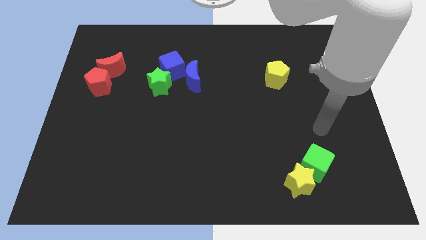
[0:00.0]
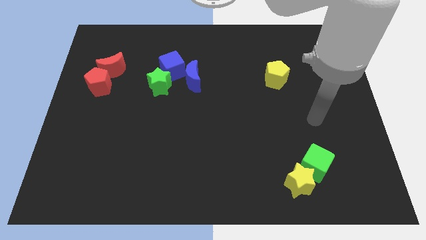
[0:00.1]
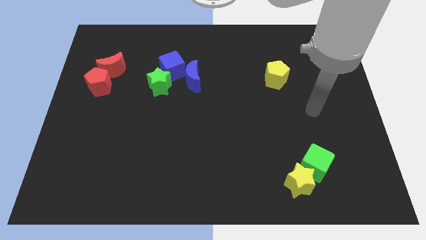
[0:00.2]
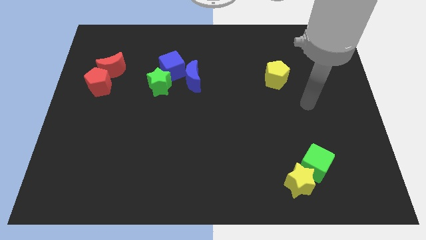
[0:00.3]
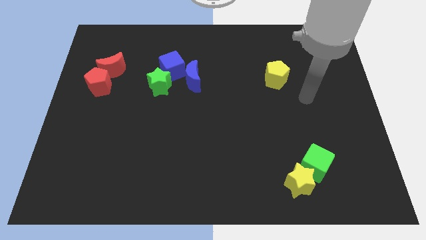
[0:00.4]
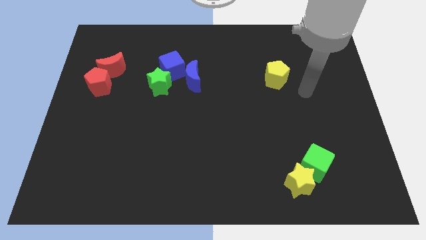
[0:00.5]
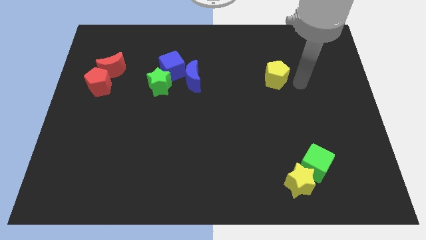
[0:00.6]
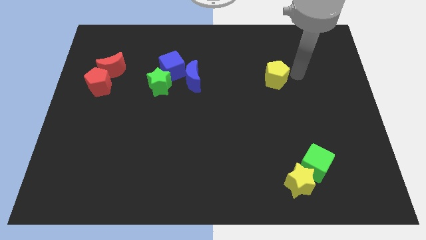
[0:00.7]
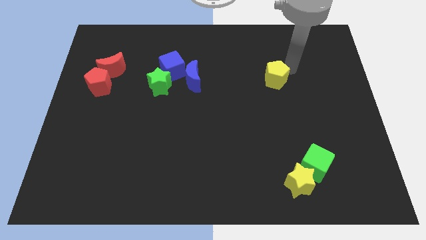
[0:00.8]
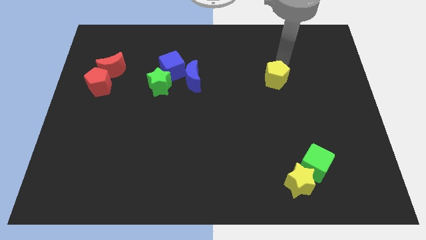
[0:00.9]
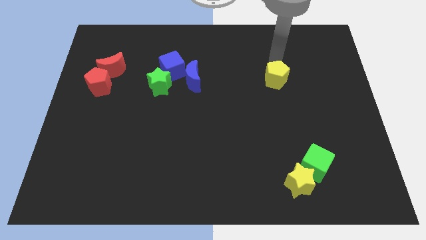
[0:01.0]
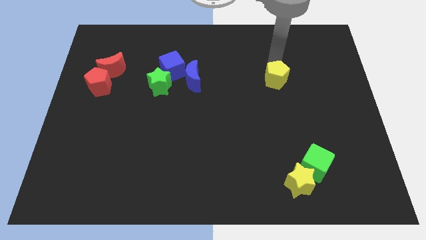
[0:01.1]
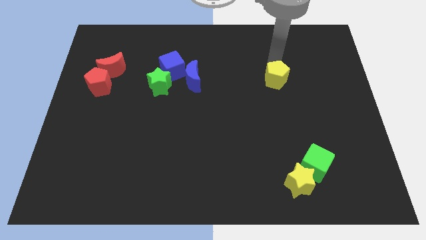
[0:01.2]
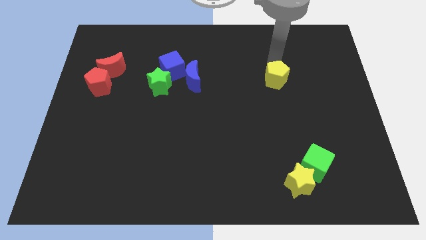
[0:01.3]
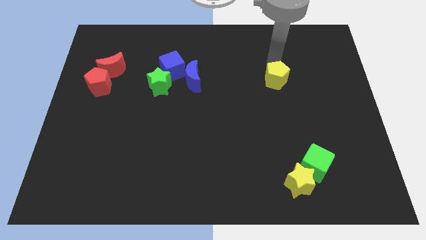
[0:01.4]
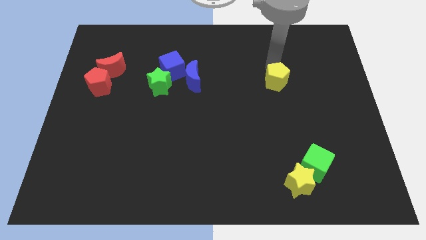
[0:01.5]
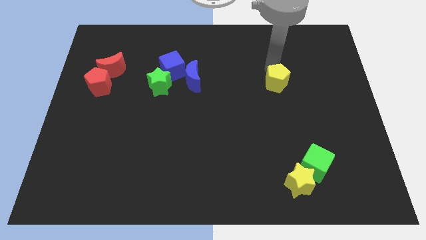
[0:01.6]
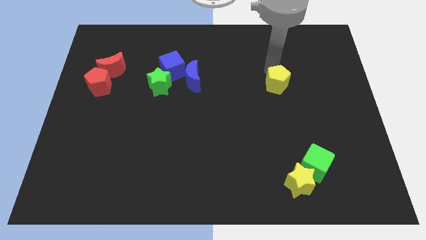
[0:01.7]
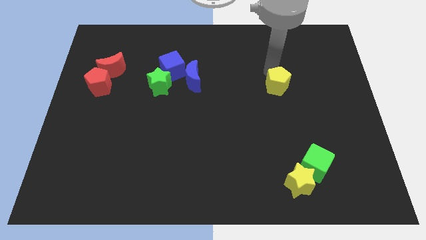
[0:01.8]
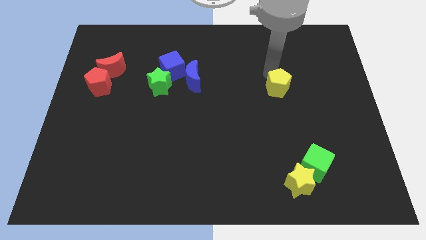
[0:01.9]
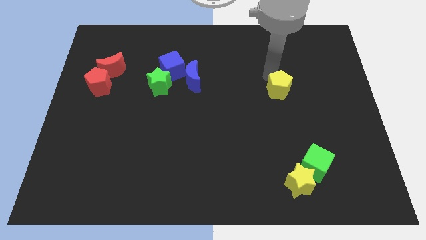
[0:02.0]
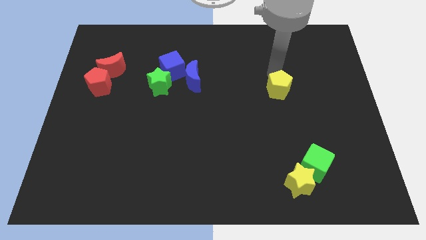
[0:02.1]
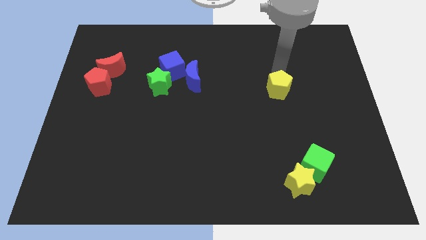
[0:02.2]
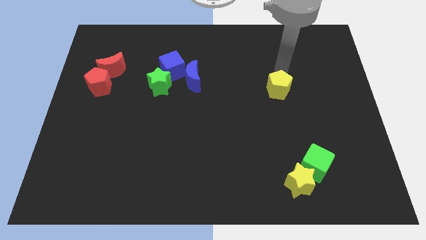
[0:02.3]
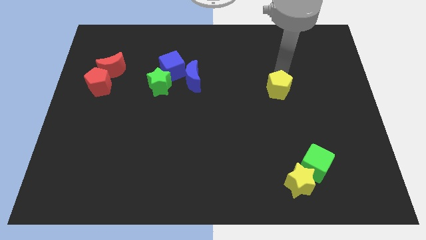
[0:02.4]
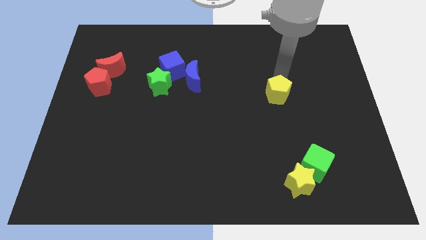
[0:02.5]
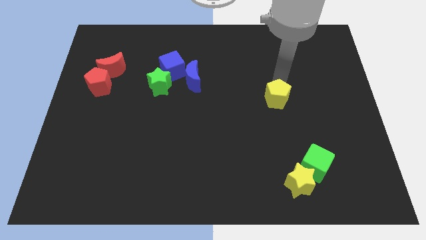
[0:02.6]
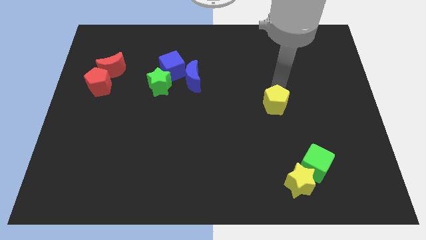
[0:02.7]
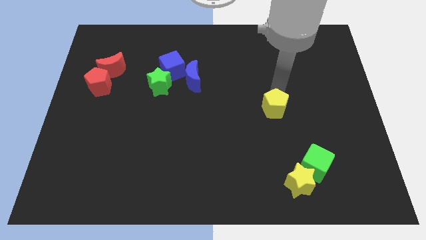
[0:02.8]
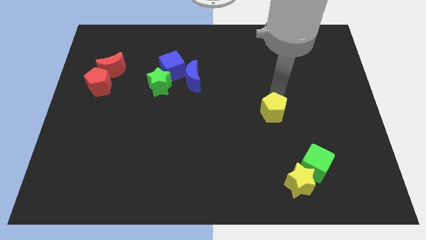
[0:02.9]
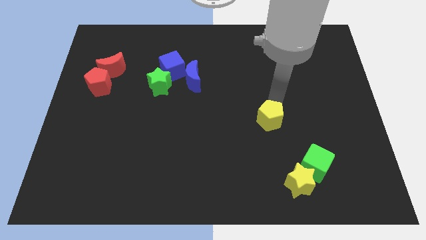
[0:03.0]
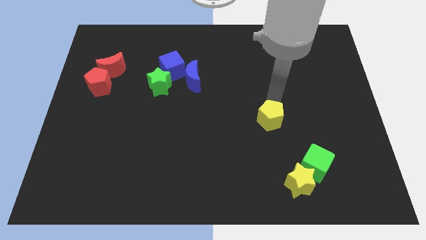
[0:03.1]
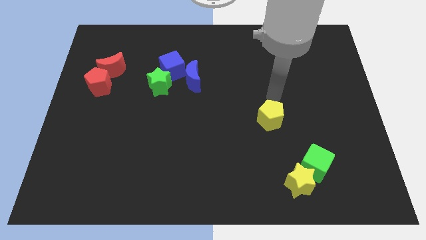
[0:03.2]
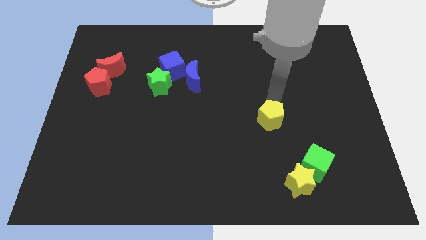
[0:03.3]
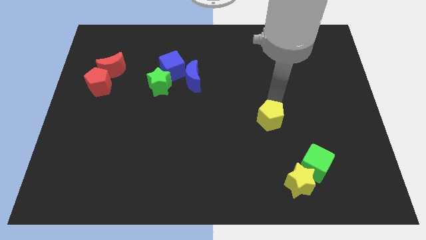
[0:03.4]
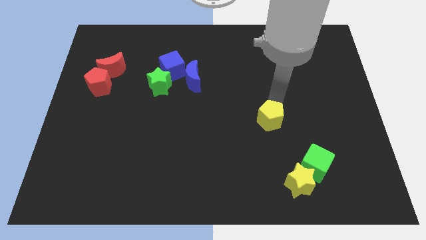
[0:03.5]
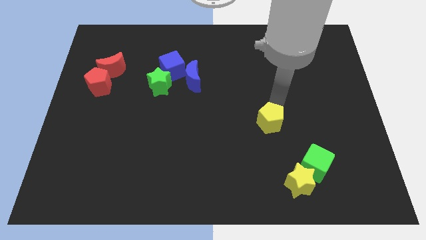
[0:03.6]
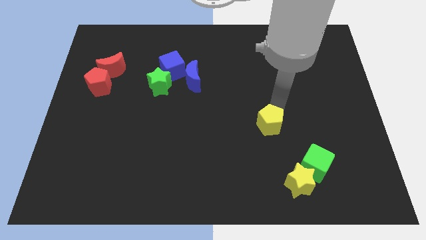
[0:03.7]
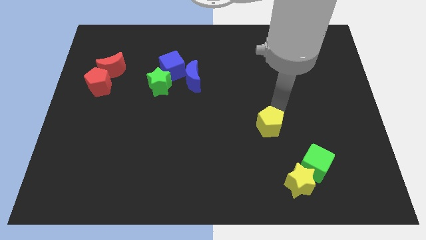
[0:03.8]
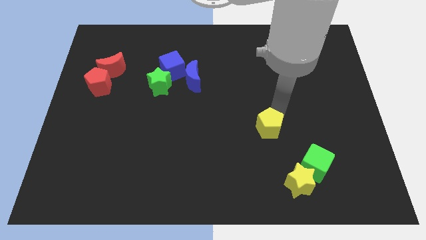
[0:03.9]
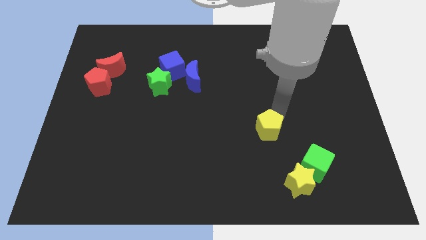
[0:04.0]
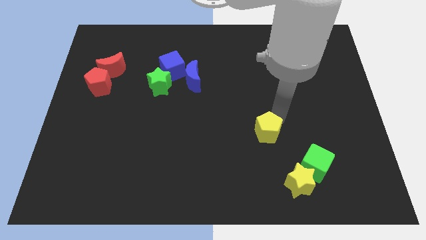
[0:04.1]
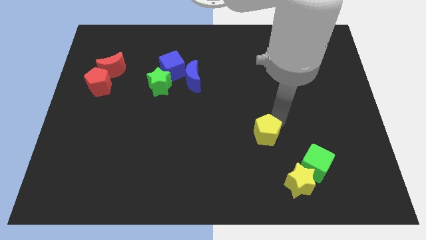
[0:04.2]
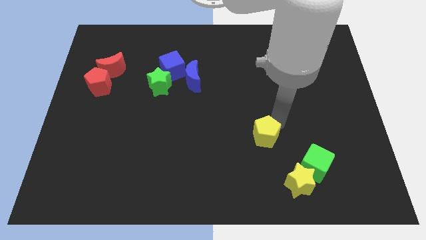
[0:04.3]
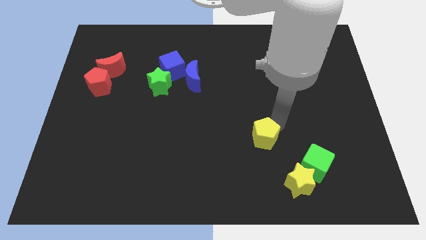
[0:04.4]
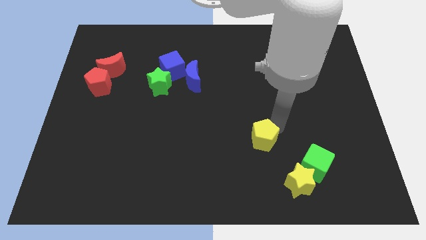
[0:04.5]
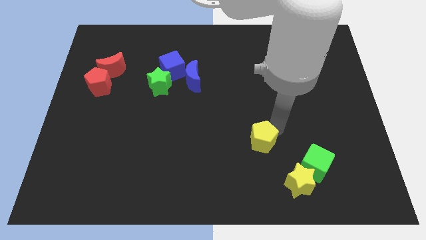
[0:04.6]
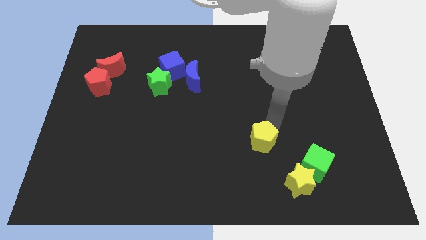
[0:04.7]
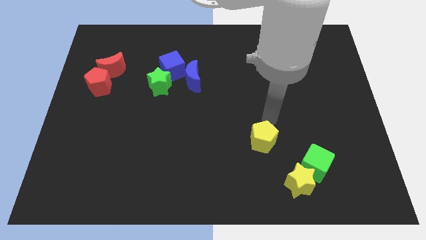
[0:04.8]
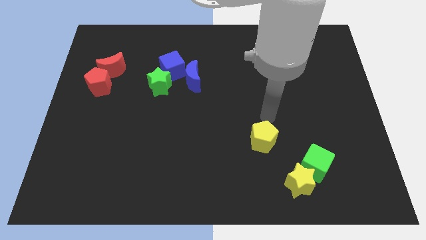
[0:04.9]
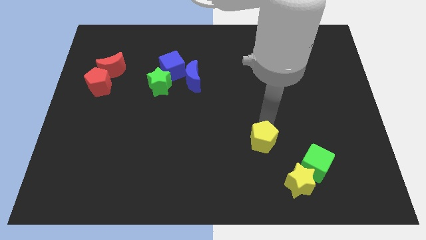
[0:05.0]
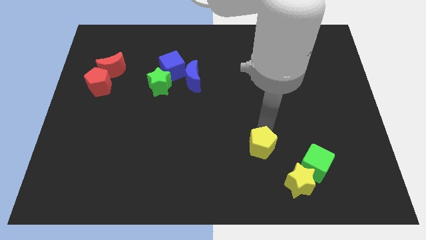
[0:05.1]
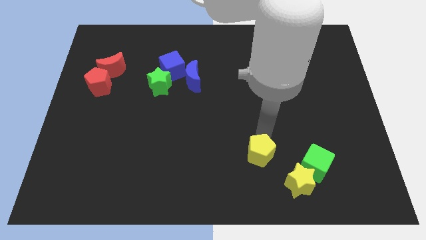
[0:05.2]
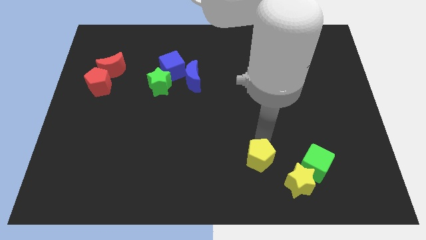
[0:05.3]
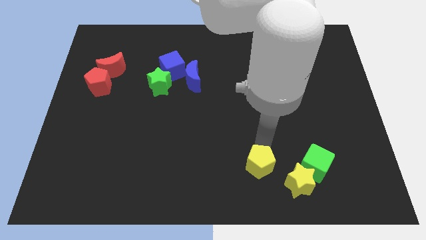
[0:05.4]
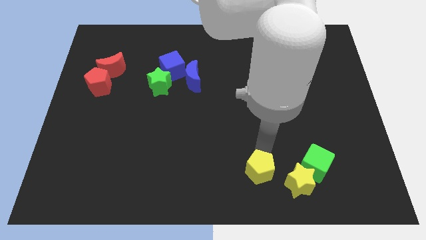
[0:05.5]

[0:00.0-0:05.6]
push the yellow pentagon to the bottom
